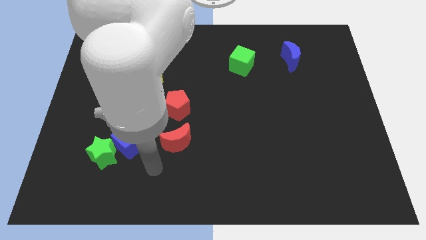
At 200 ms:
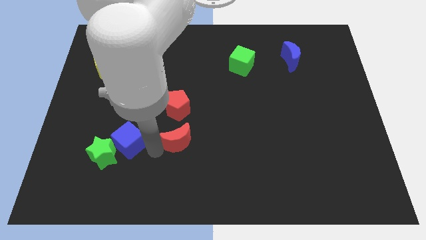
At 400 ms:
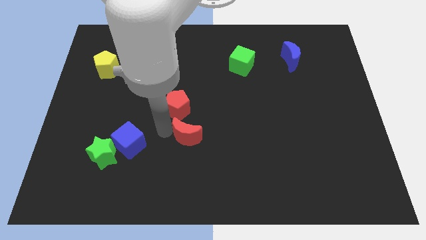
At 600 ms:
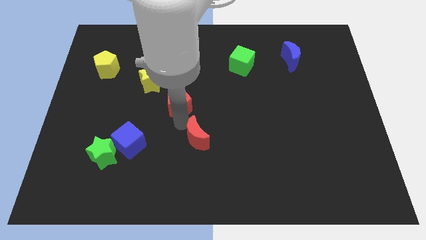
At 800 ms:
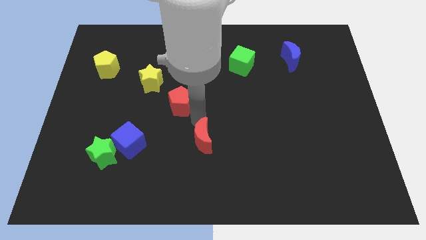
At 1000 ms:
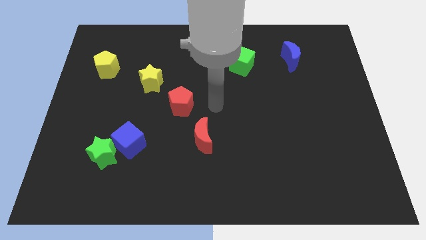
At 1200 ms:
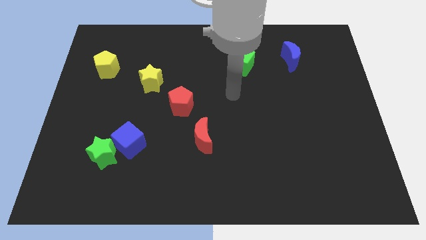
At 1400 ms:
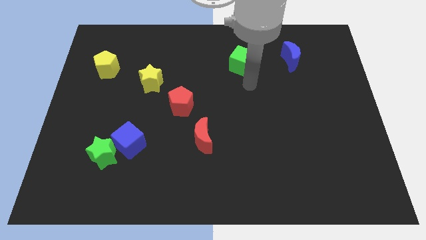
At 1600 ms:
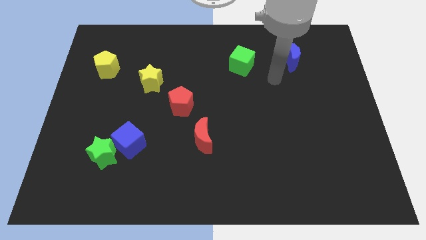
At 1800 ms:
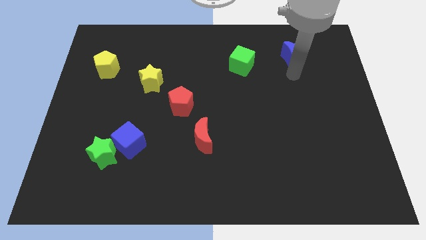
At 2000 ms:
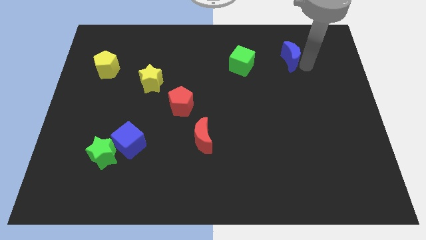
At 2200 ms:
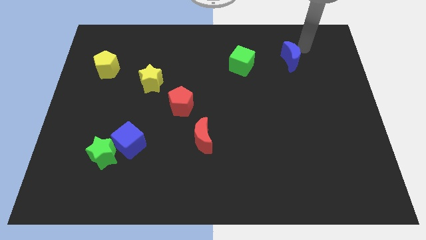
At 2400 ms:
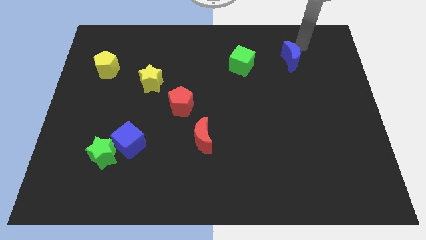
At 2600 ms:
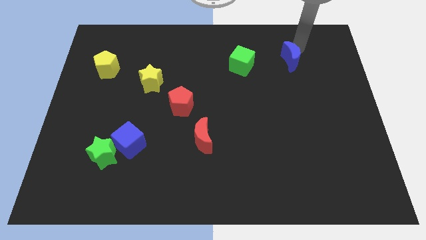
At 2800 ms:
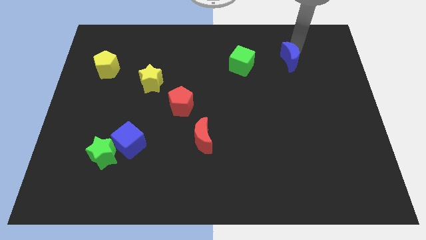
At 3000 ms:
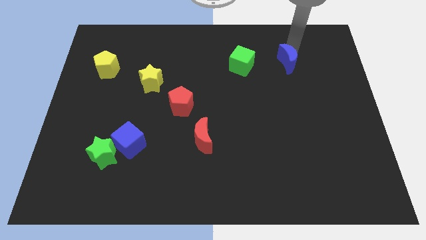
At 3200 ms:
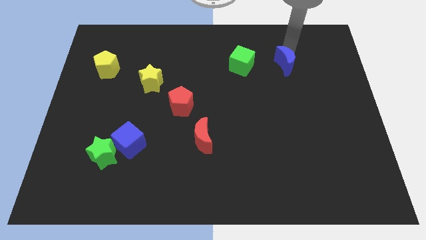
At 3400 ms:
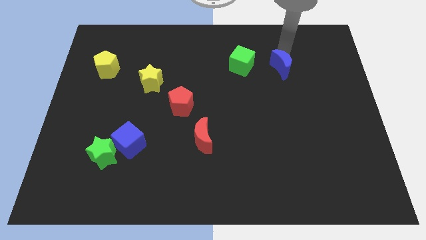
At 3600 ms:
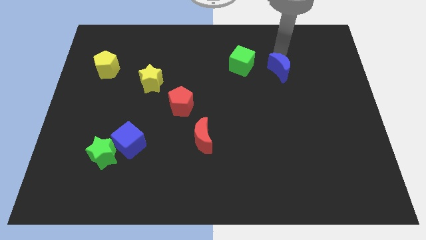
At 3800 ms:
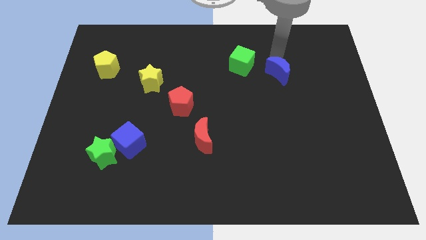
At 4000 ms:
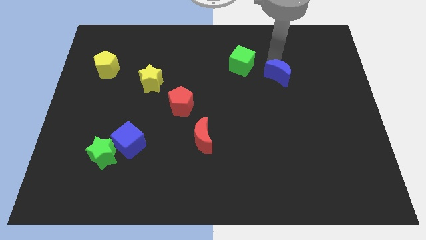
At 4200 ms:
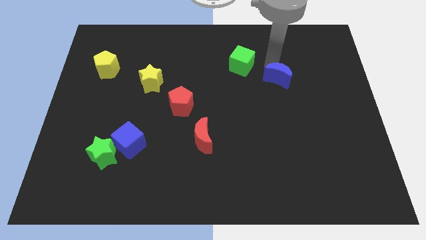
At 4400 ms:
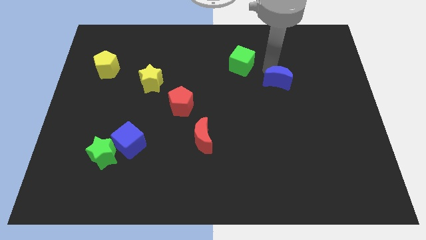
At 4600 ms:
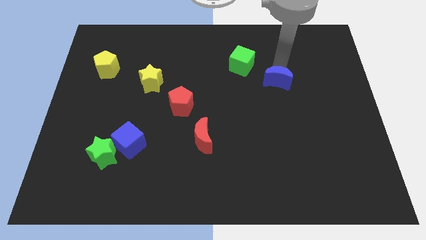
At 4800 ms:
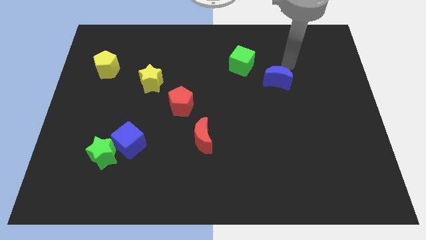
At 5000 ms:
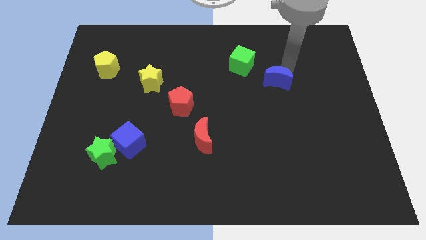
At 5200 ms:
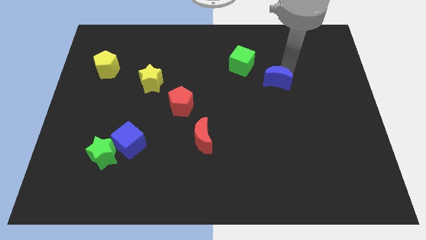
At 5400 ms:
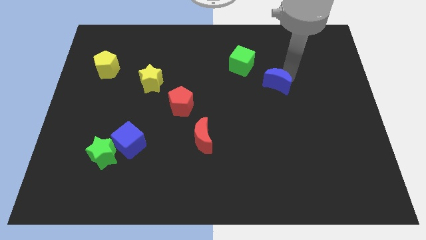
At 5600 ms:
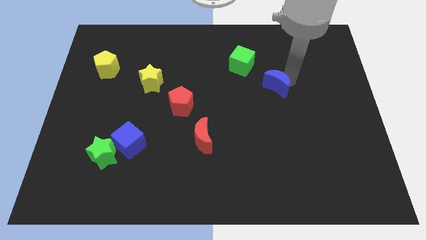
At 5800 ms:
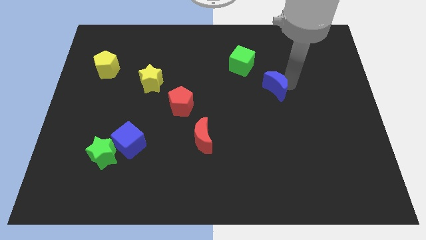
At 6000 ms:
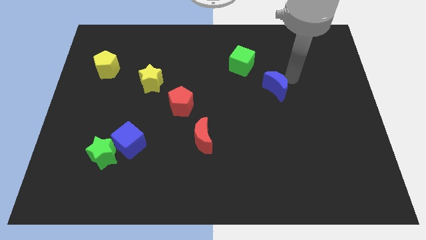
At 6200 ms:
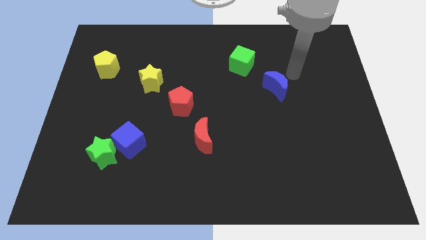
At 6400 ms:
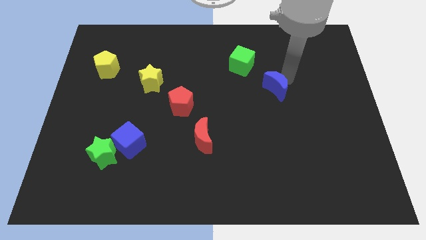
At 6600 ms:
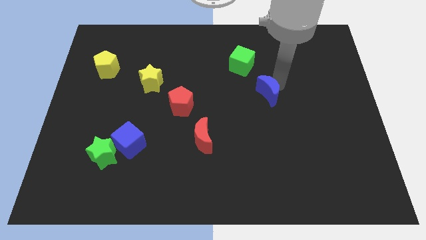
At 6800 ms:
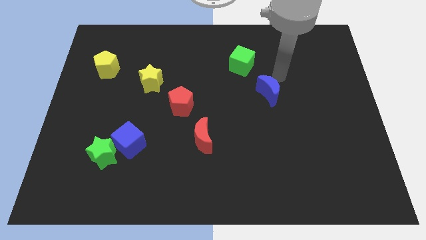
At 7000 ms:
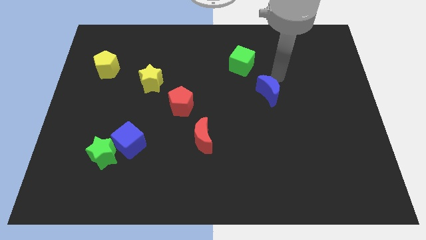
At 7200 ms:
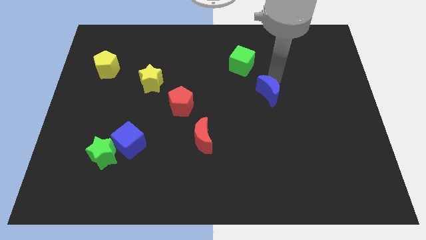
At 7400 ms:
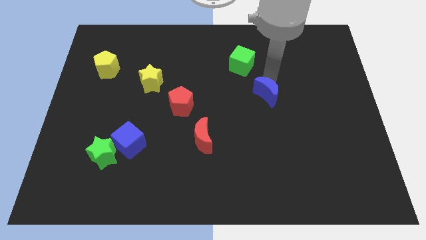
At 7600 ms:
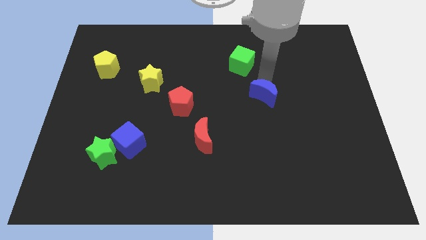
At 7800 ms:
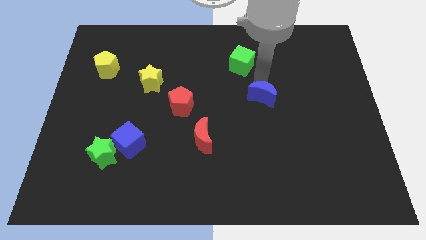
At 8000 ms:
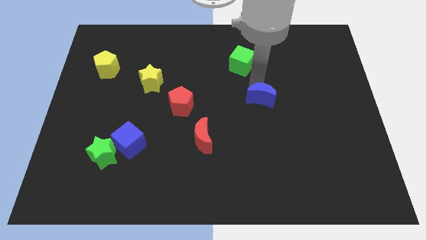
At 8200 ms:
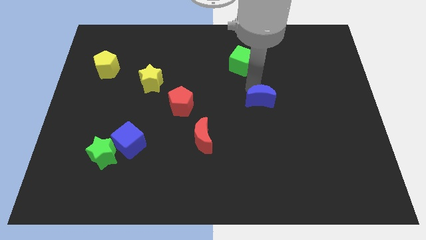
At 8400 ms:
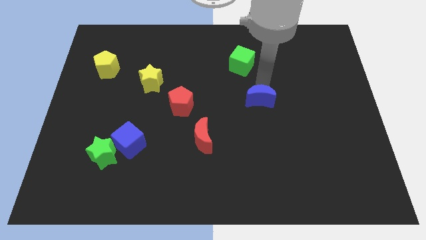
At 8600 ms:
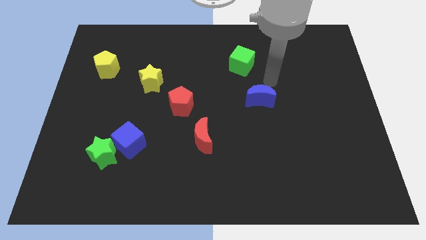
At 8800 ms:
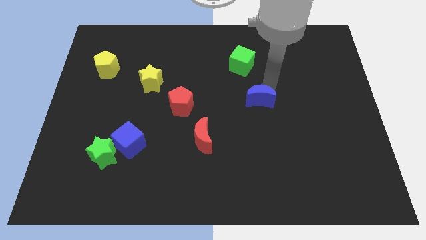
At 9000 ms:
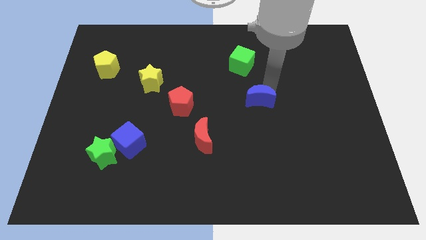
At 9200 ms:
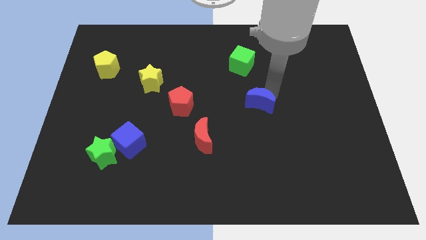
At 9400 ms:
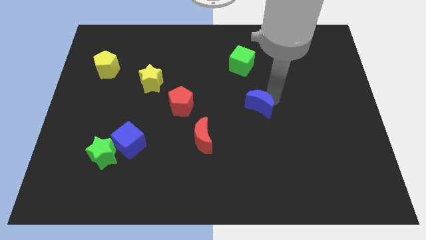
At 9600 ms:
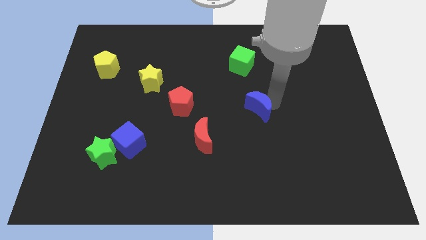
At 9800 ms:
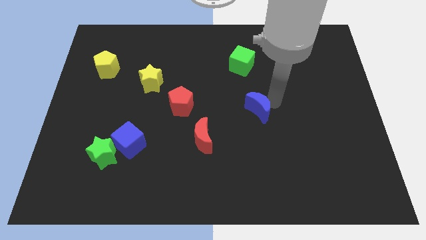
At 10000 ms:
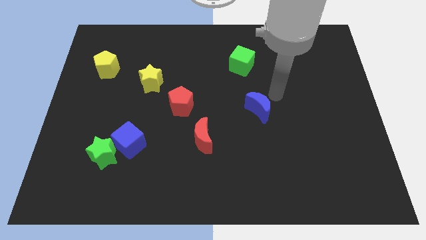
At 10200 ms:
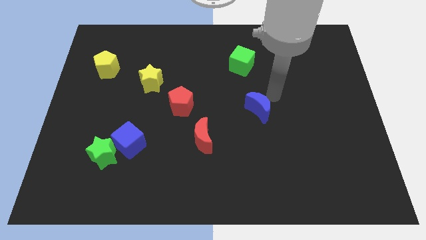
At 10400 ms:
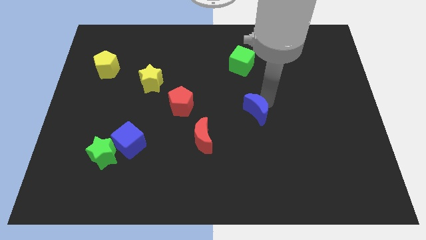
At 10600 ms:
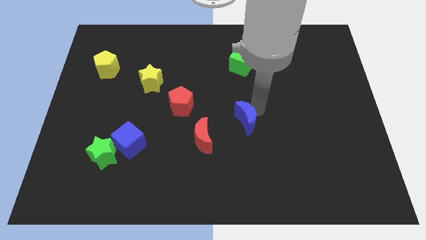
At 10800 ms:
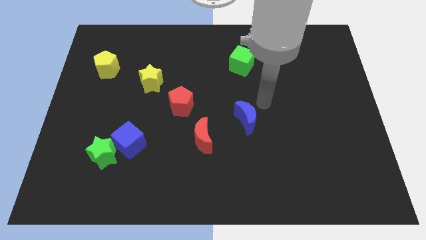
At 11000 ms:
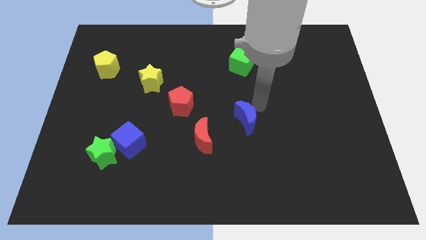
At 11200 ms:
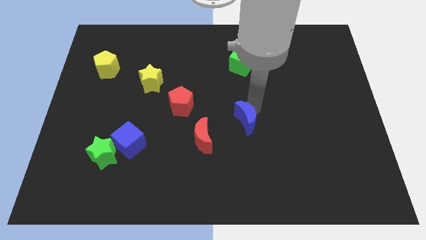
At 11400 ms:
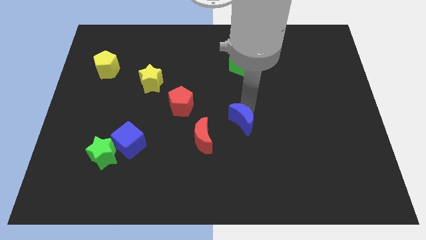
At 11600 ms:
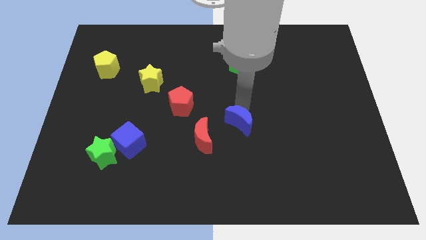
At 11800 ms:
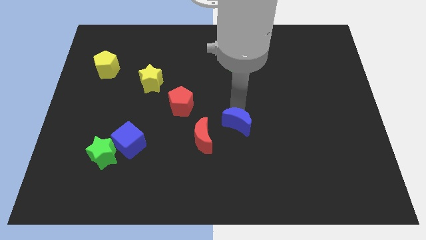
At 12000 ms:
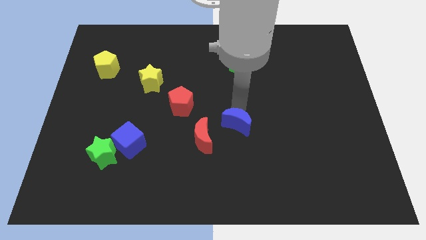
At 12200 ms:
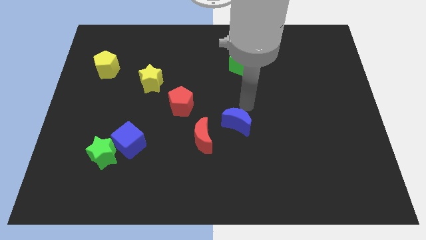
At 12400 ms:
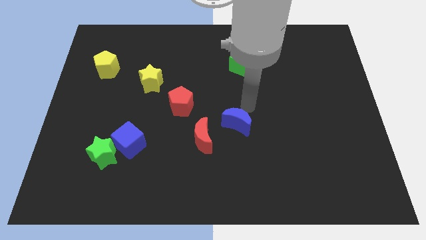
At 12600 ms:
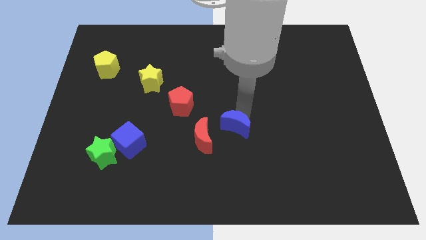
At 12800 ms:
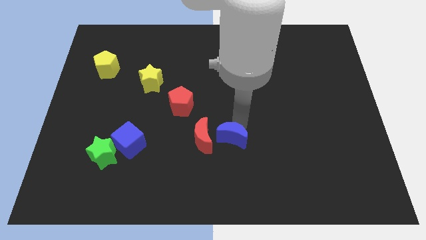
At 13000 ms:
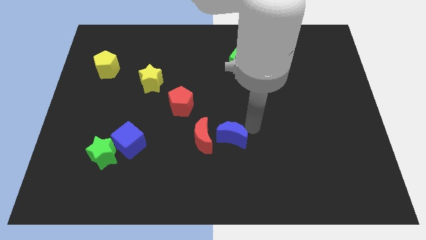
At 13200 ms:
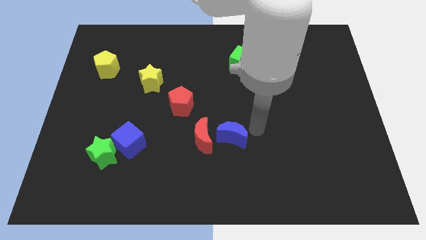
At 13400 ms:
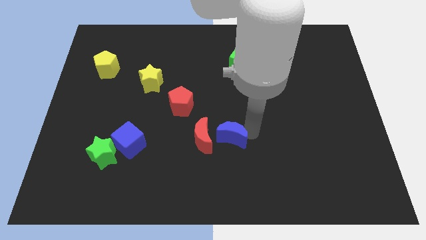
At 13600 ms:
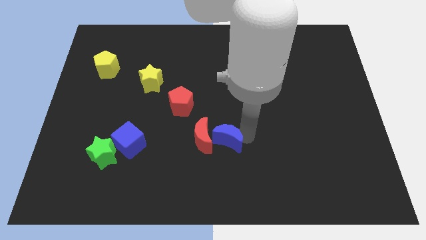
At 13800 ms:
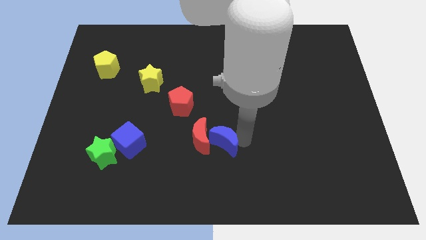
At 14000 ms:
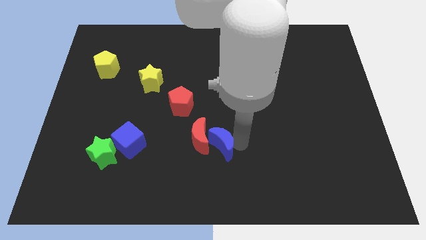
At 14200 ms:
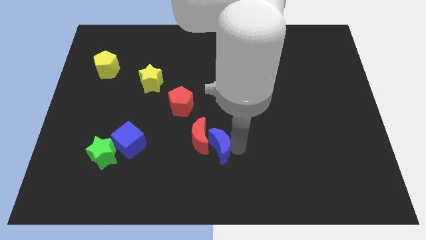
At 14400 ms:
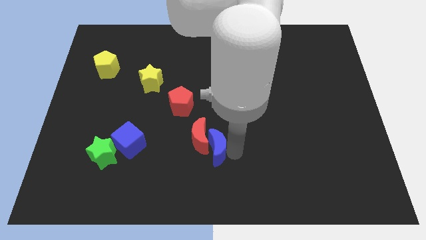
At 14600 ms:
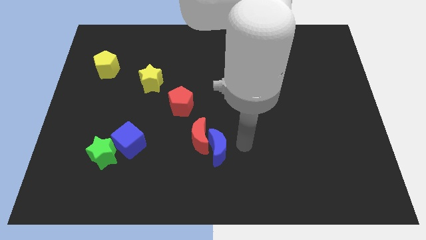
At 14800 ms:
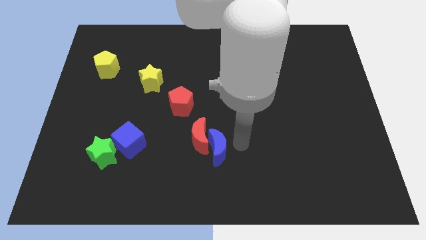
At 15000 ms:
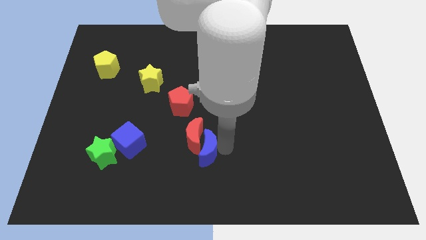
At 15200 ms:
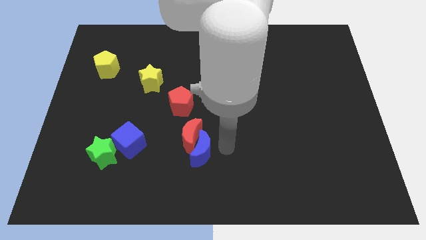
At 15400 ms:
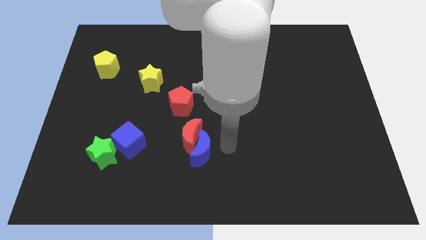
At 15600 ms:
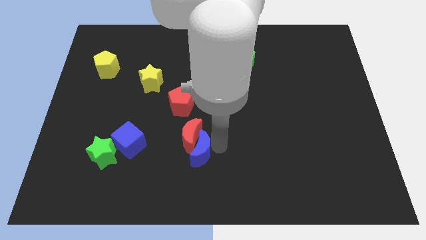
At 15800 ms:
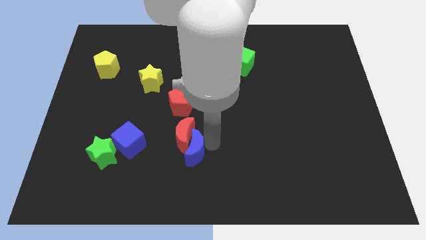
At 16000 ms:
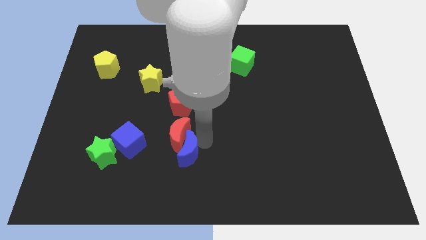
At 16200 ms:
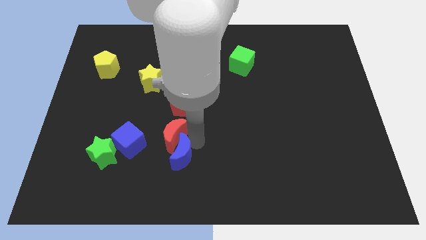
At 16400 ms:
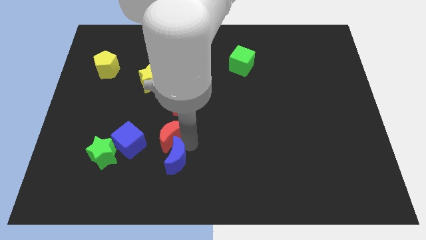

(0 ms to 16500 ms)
slide the blue moon to the bottom left side of the red moon
